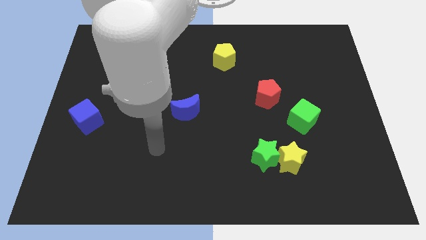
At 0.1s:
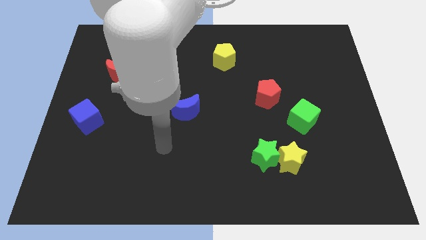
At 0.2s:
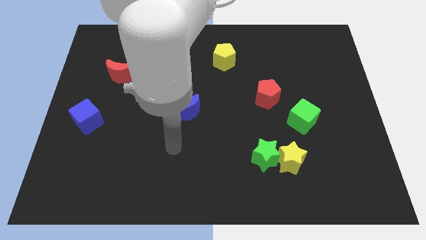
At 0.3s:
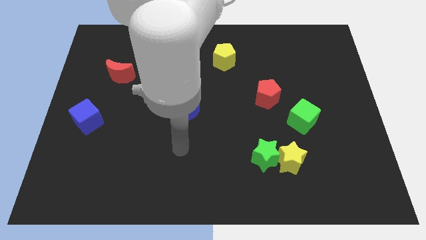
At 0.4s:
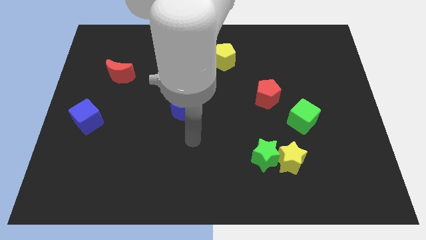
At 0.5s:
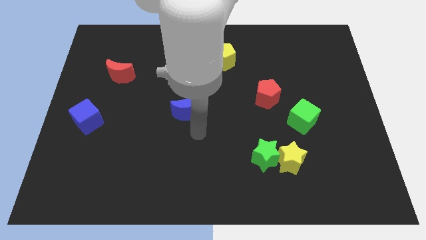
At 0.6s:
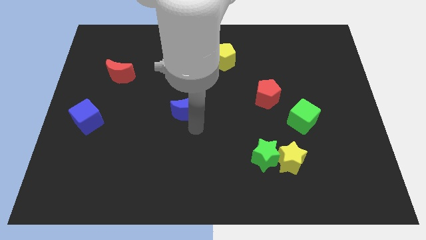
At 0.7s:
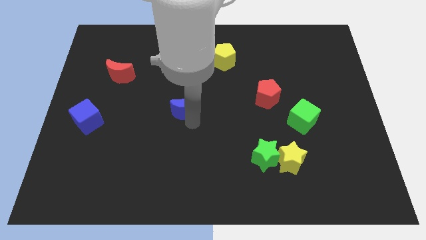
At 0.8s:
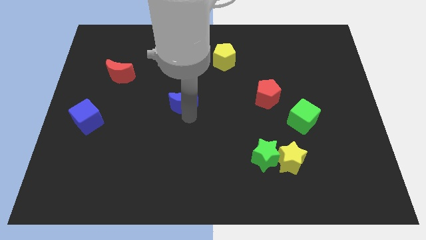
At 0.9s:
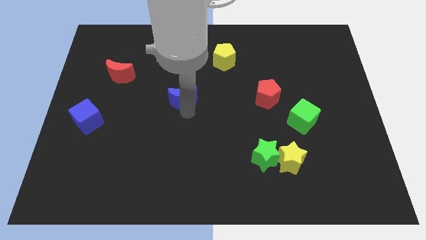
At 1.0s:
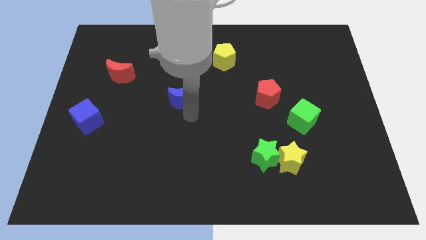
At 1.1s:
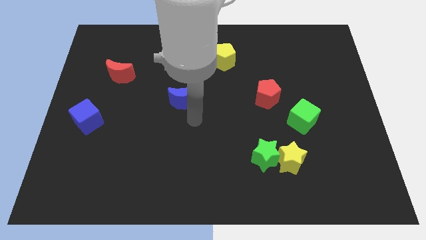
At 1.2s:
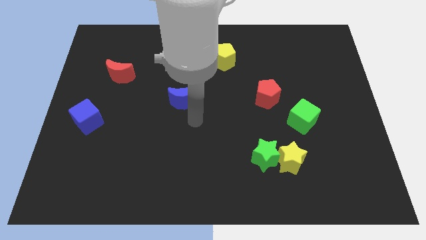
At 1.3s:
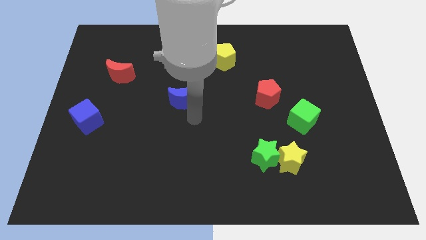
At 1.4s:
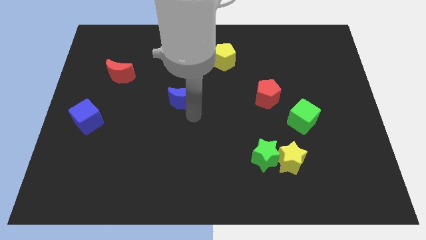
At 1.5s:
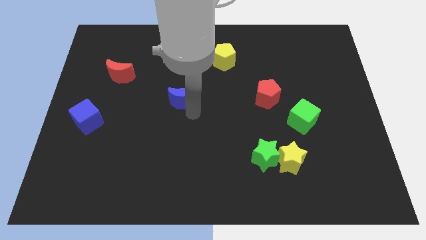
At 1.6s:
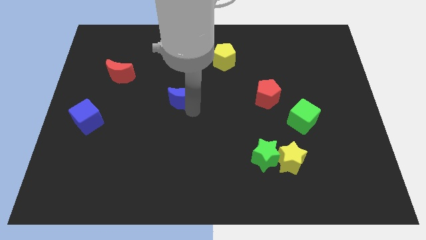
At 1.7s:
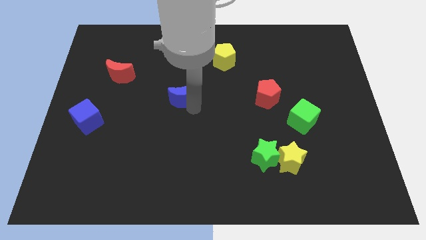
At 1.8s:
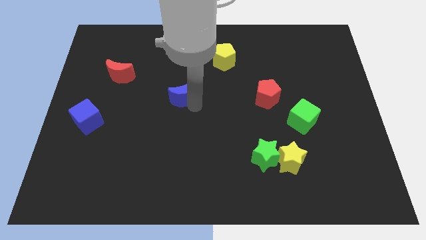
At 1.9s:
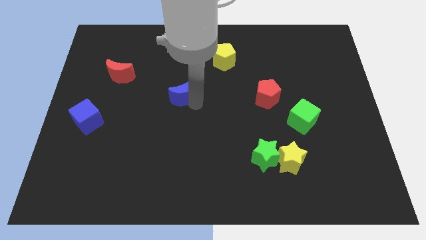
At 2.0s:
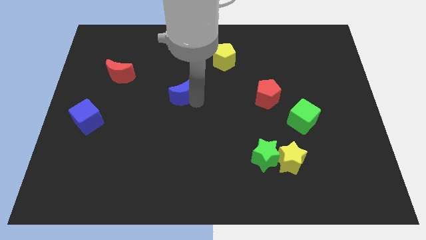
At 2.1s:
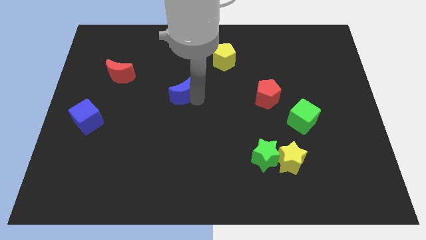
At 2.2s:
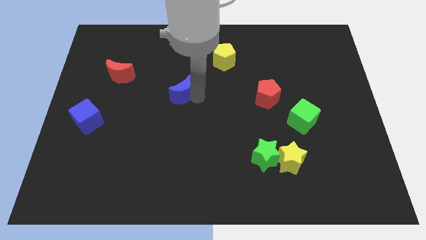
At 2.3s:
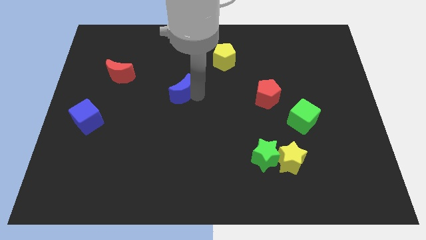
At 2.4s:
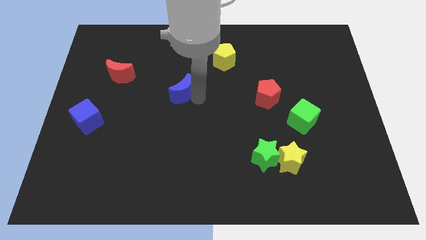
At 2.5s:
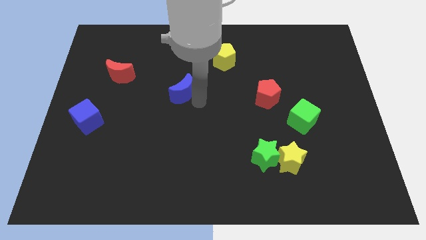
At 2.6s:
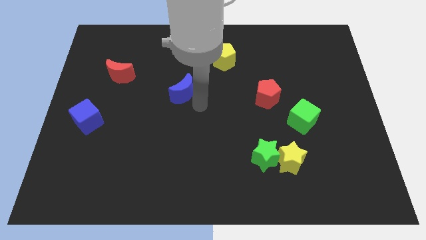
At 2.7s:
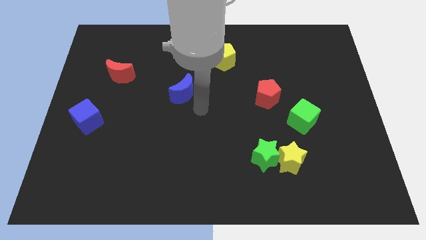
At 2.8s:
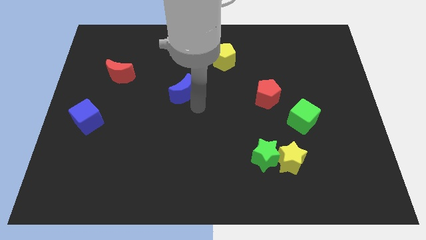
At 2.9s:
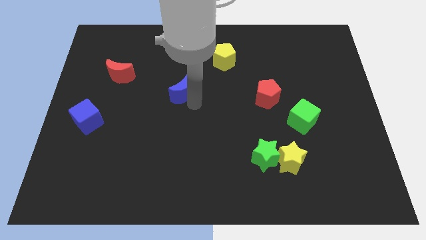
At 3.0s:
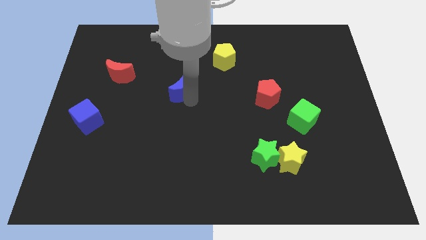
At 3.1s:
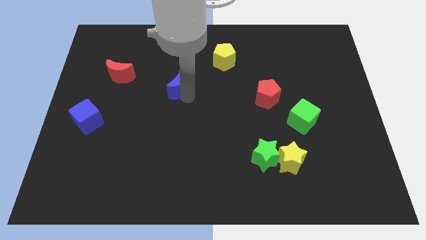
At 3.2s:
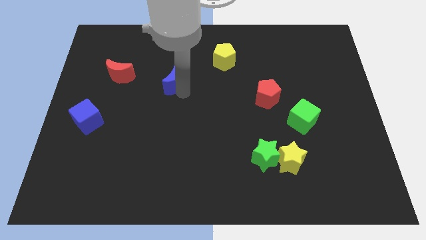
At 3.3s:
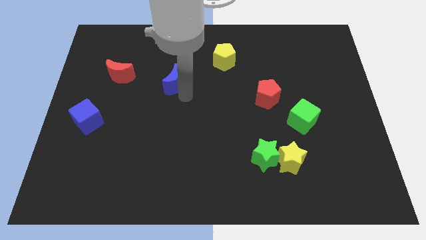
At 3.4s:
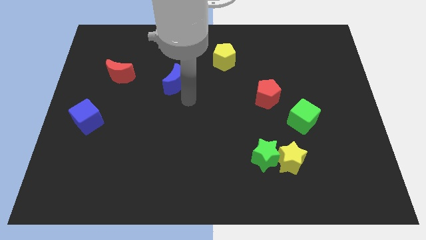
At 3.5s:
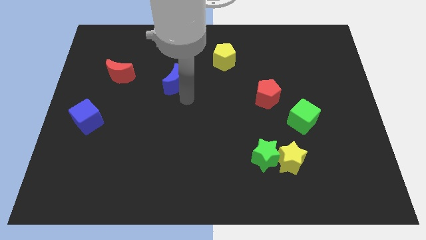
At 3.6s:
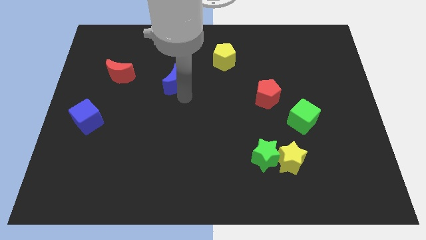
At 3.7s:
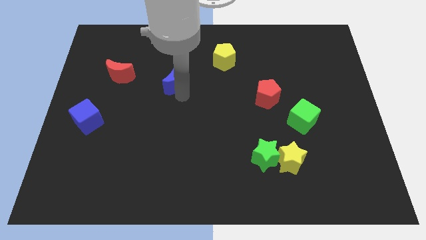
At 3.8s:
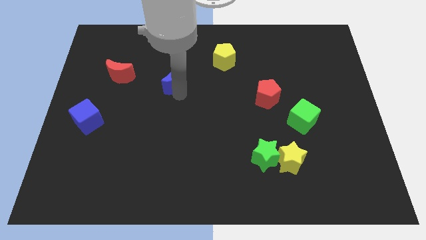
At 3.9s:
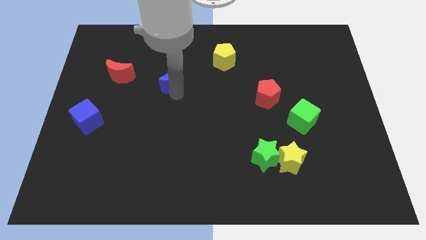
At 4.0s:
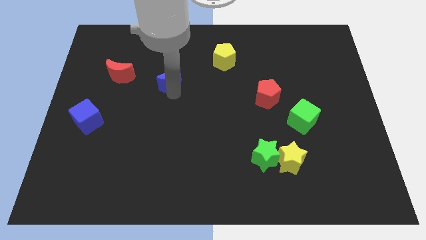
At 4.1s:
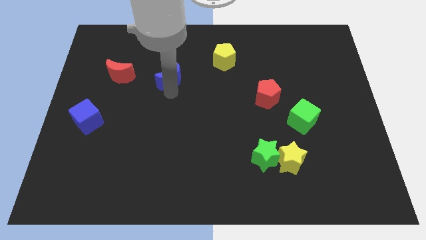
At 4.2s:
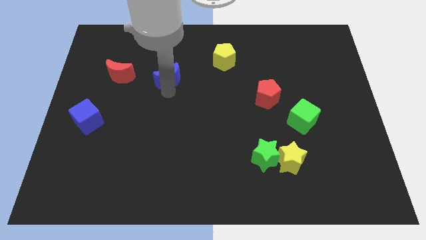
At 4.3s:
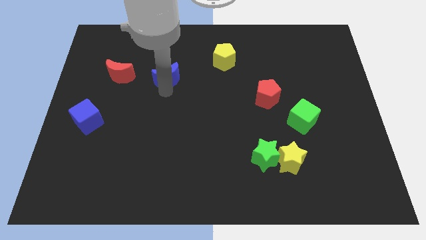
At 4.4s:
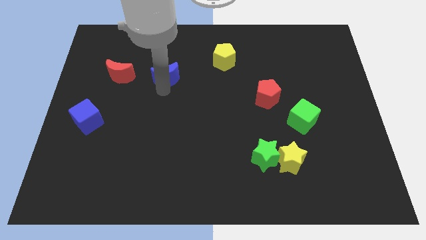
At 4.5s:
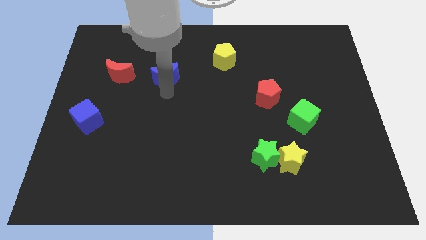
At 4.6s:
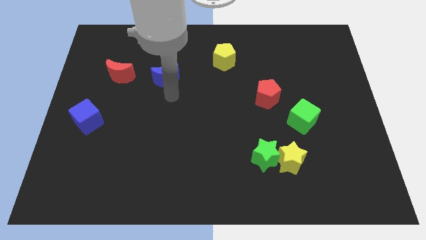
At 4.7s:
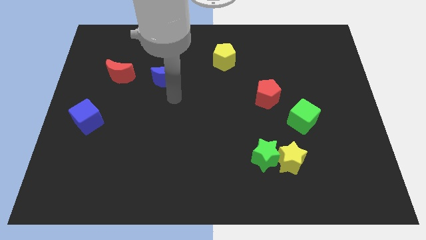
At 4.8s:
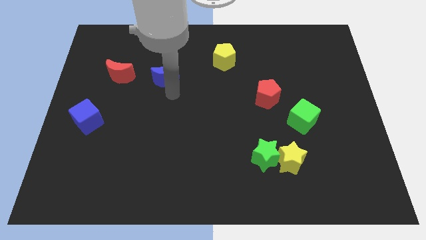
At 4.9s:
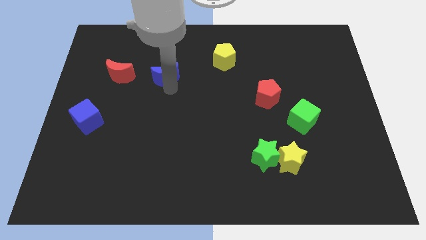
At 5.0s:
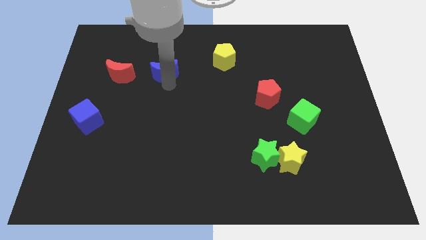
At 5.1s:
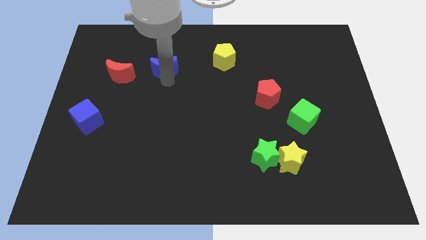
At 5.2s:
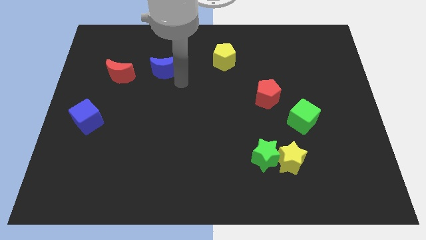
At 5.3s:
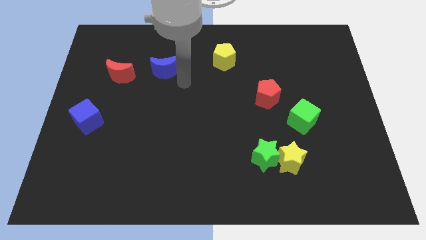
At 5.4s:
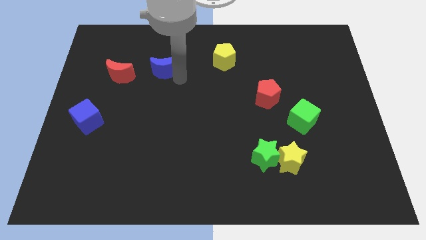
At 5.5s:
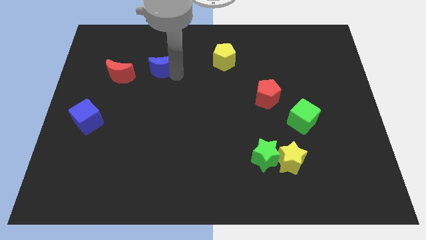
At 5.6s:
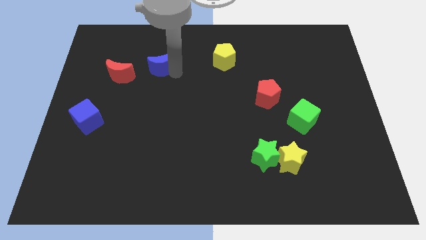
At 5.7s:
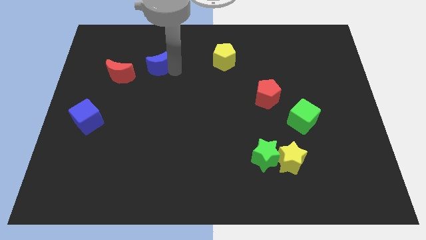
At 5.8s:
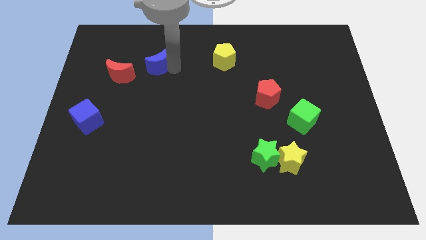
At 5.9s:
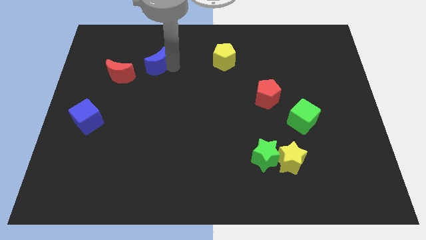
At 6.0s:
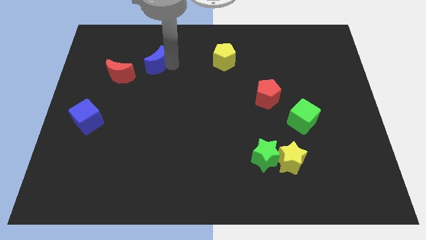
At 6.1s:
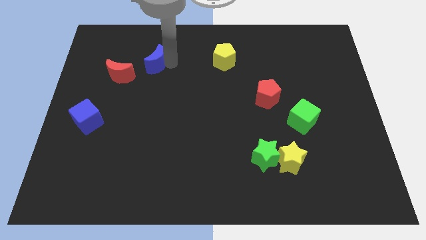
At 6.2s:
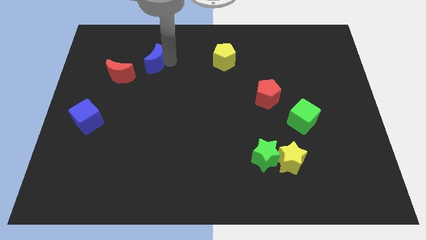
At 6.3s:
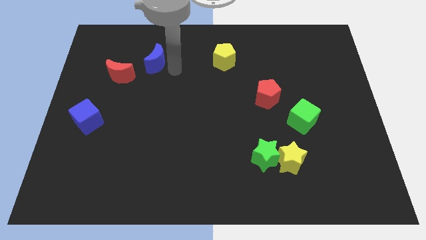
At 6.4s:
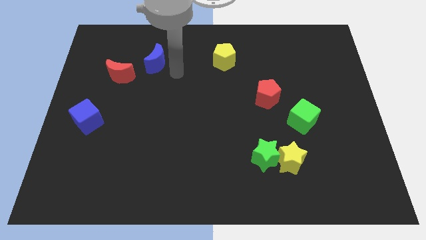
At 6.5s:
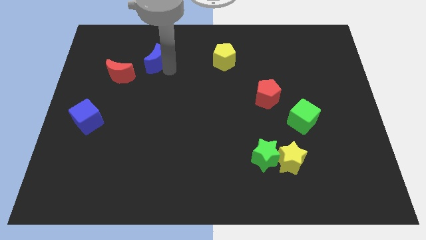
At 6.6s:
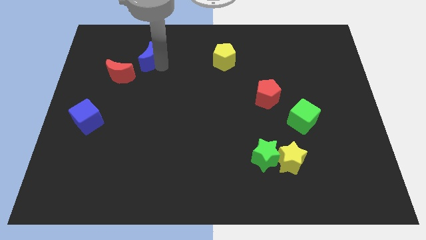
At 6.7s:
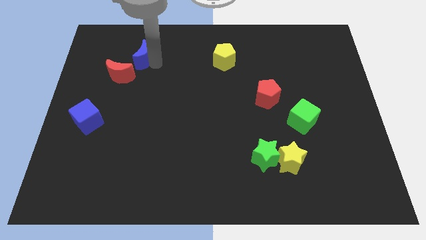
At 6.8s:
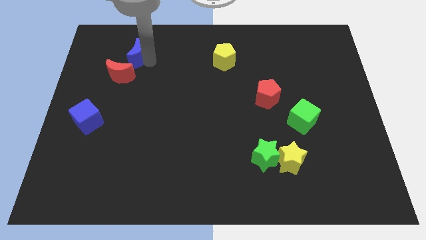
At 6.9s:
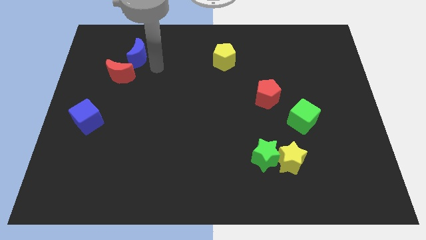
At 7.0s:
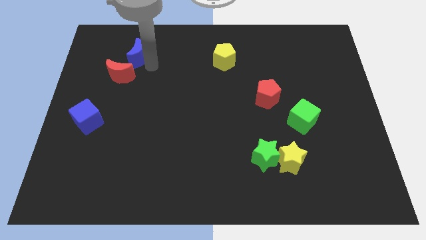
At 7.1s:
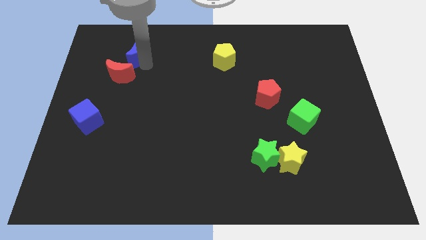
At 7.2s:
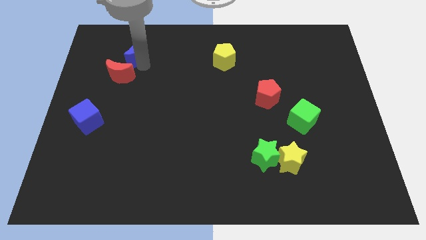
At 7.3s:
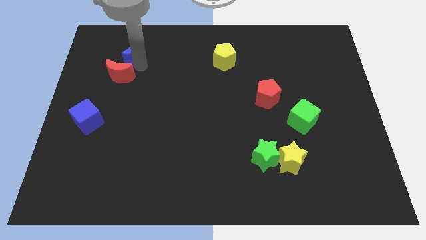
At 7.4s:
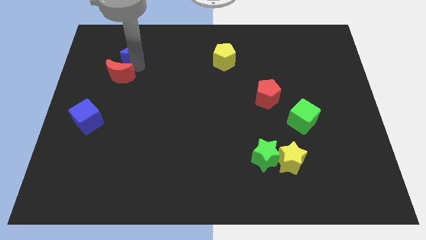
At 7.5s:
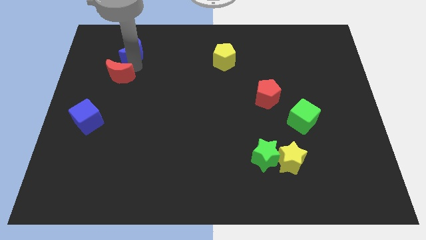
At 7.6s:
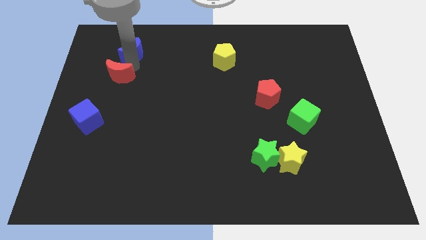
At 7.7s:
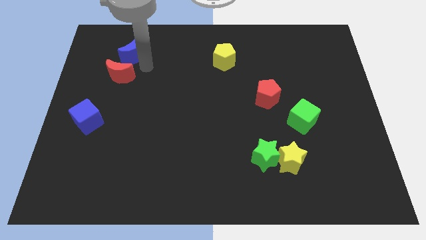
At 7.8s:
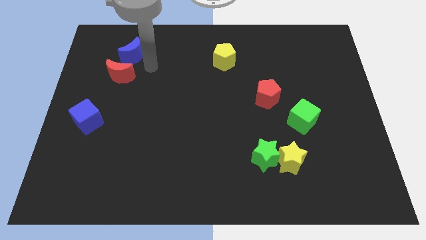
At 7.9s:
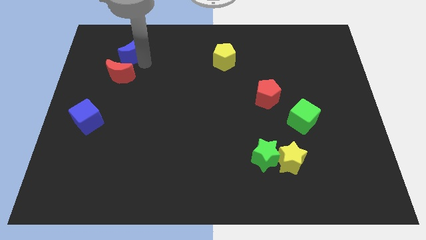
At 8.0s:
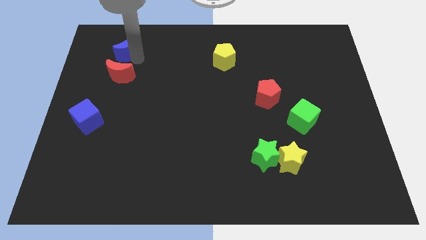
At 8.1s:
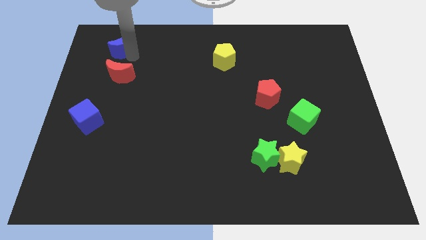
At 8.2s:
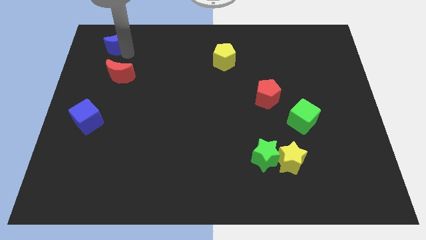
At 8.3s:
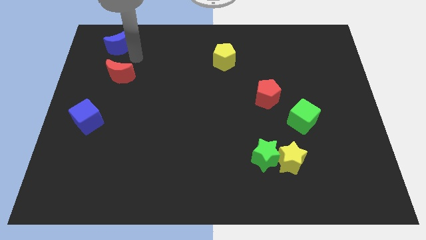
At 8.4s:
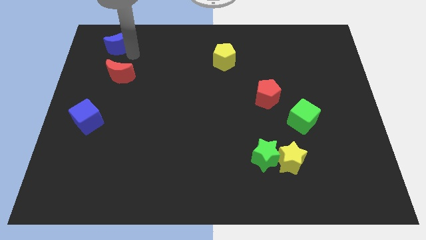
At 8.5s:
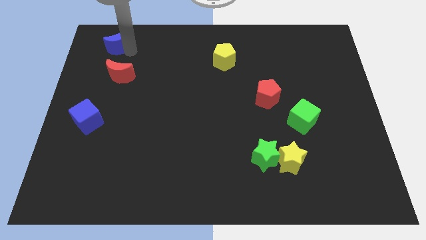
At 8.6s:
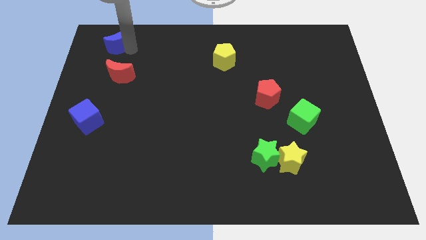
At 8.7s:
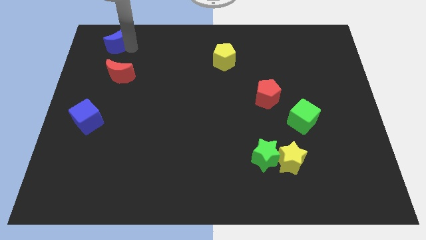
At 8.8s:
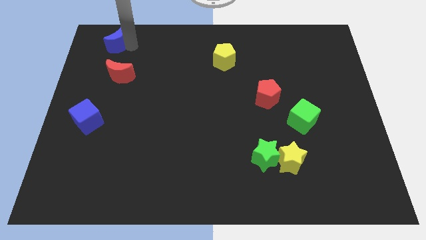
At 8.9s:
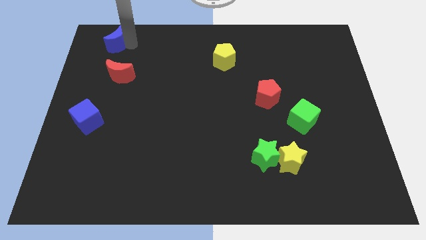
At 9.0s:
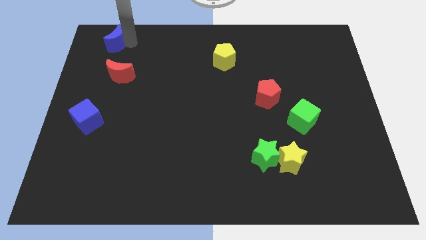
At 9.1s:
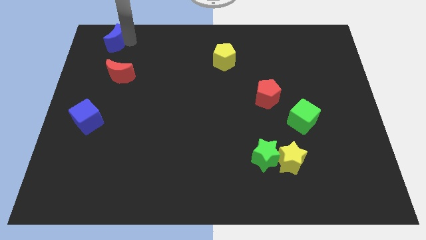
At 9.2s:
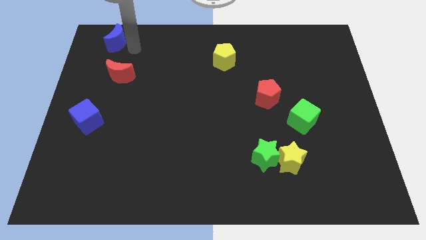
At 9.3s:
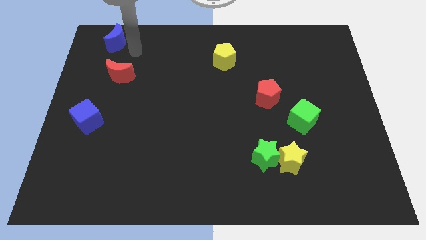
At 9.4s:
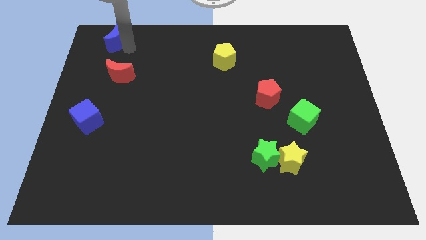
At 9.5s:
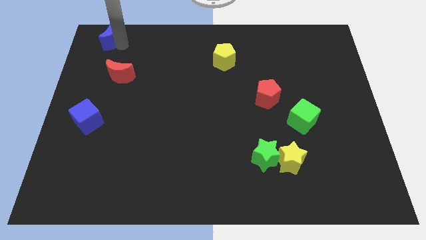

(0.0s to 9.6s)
move the blue moon to the upper left corner
